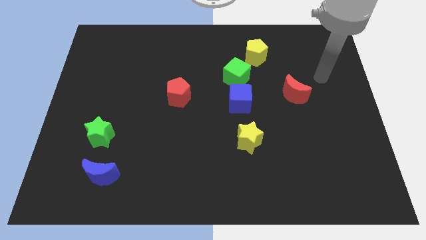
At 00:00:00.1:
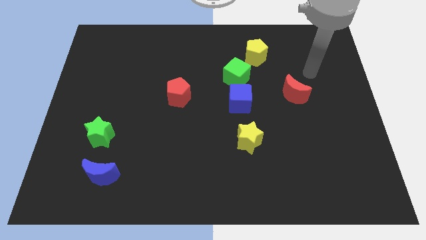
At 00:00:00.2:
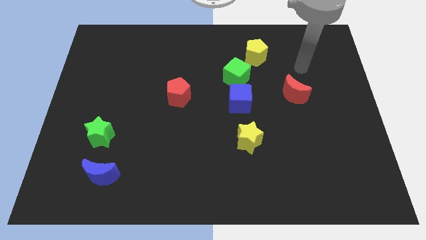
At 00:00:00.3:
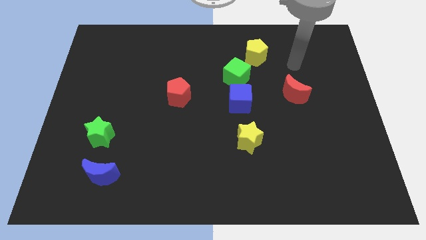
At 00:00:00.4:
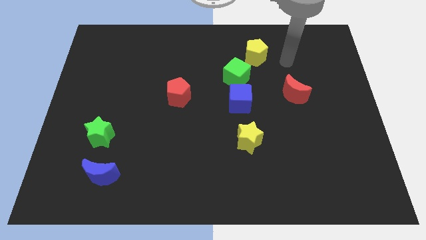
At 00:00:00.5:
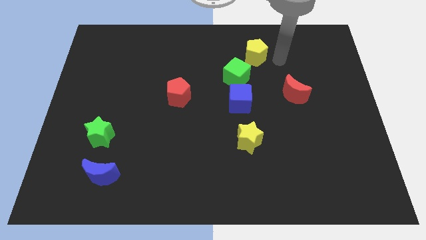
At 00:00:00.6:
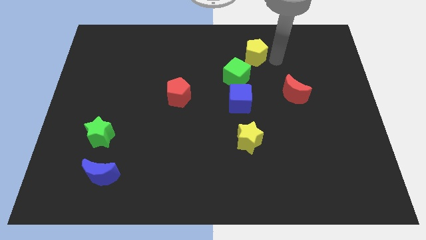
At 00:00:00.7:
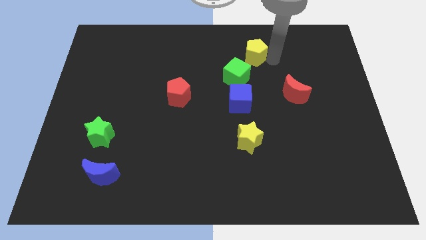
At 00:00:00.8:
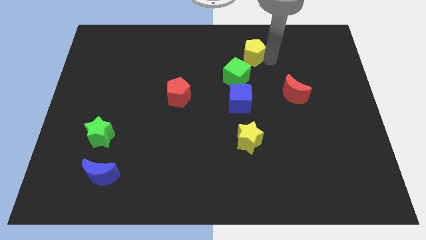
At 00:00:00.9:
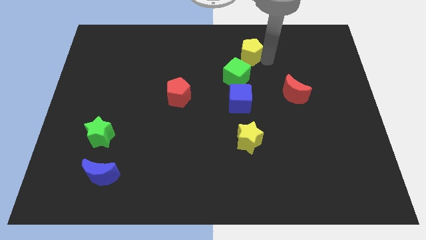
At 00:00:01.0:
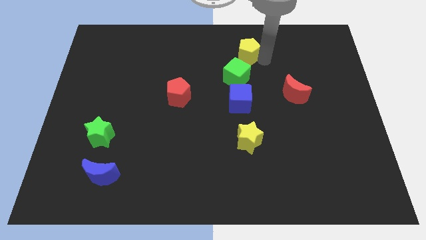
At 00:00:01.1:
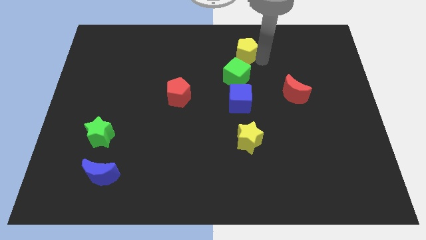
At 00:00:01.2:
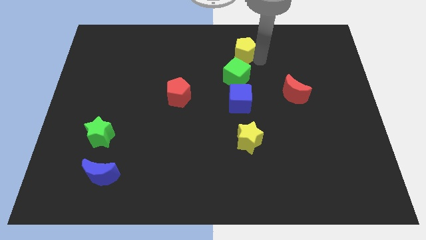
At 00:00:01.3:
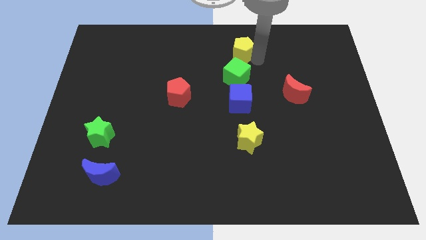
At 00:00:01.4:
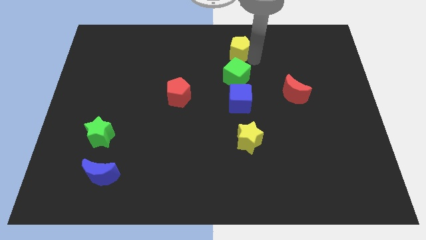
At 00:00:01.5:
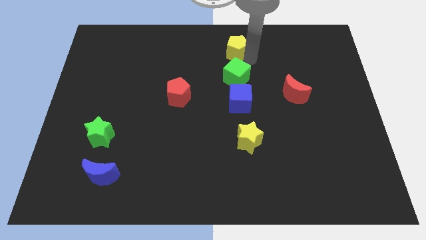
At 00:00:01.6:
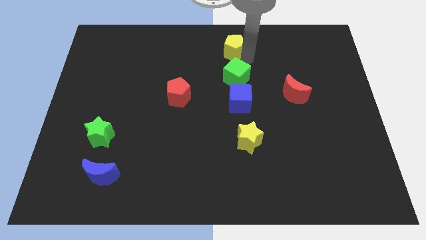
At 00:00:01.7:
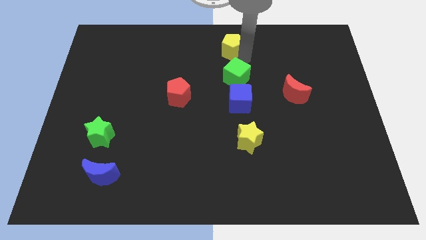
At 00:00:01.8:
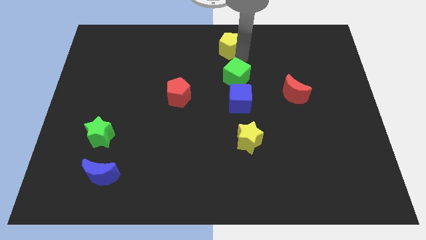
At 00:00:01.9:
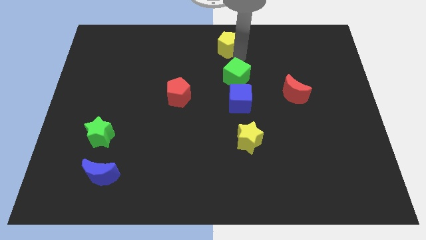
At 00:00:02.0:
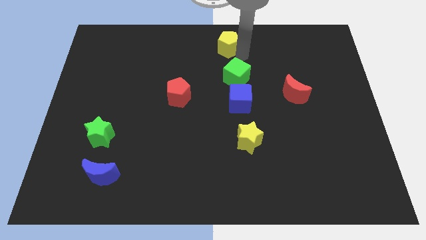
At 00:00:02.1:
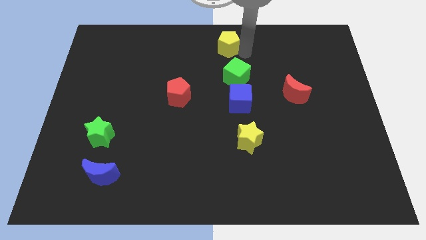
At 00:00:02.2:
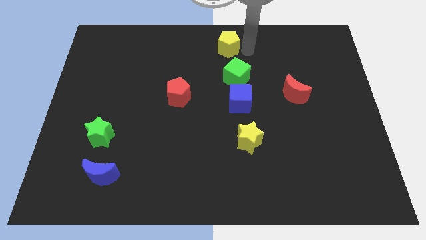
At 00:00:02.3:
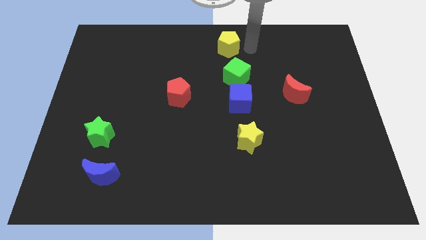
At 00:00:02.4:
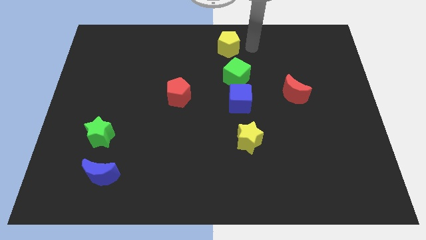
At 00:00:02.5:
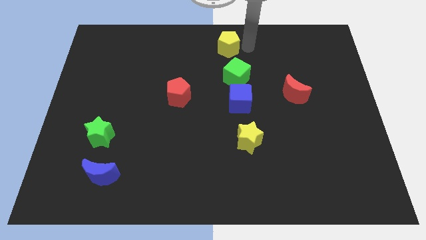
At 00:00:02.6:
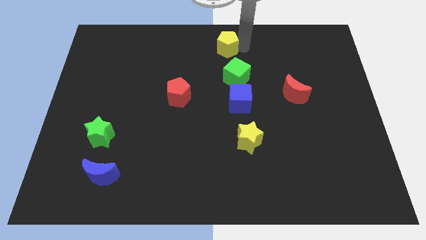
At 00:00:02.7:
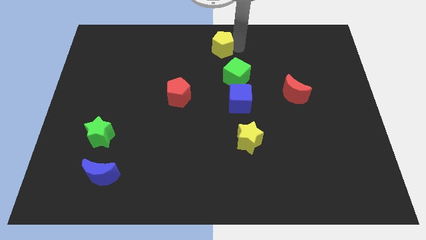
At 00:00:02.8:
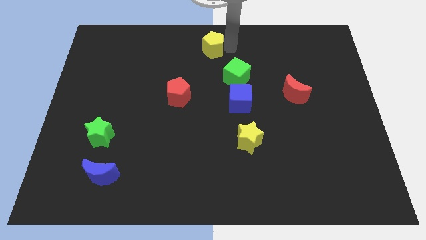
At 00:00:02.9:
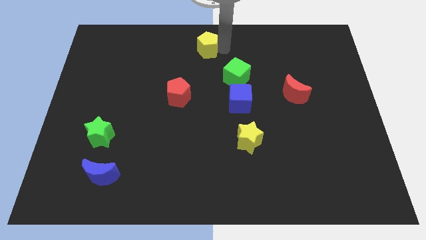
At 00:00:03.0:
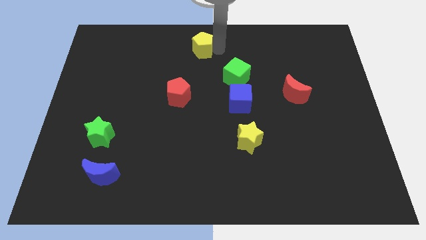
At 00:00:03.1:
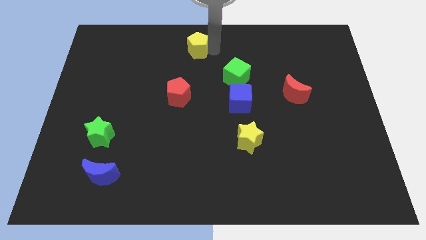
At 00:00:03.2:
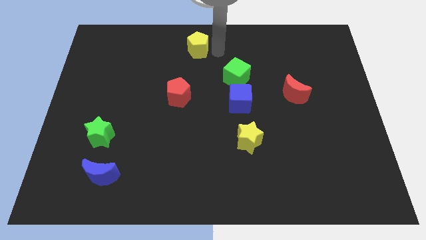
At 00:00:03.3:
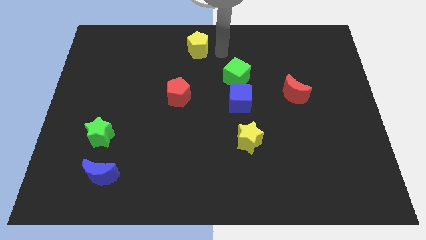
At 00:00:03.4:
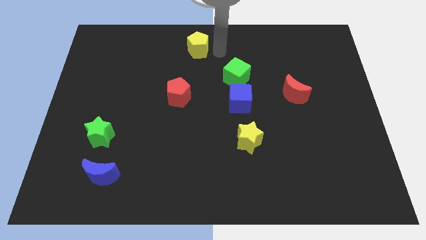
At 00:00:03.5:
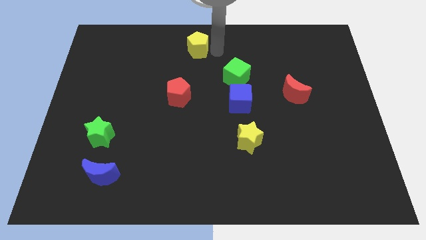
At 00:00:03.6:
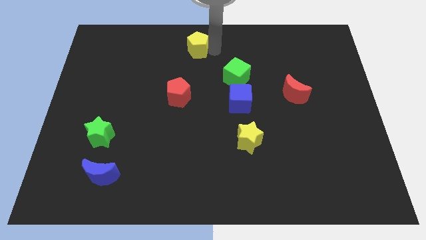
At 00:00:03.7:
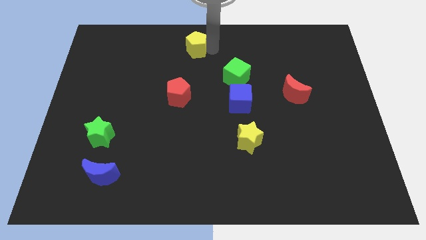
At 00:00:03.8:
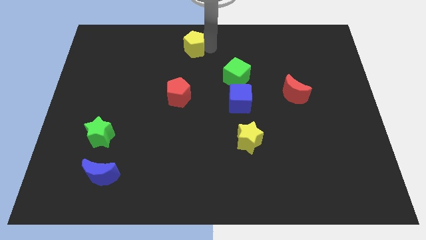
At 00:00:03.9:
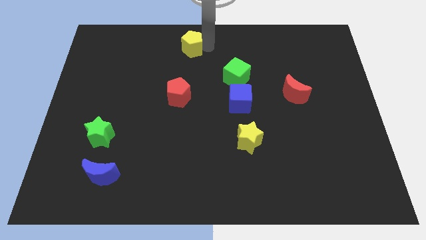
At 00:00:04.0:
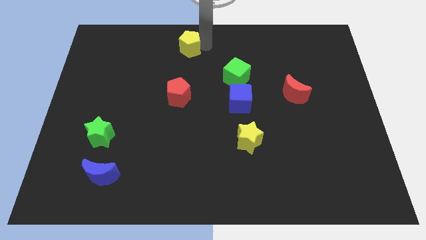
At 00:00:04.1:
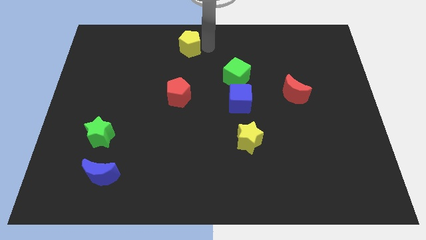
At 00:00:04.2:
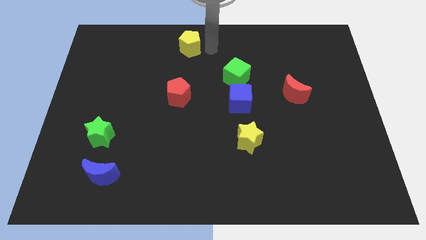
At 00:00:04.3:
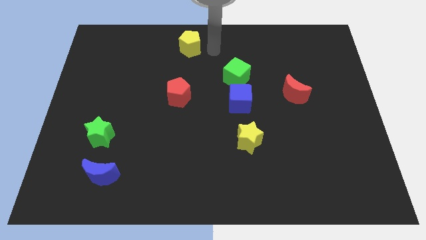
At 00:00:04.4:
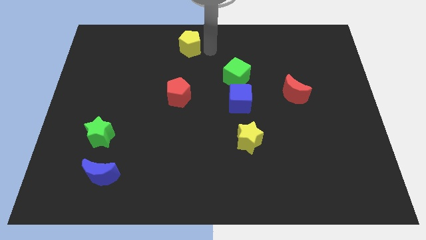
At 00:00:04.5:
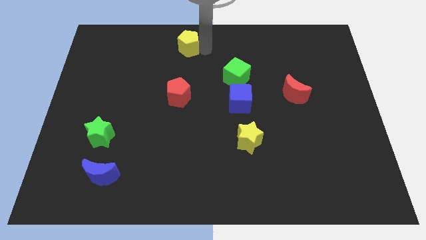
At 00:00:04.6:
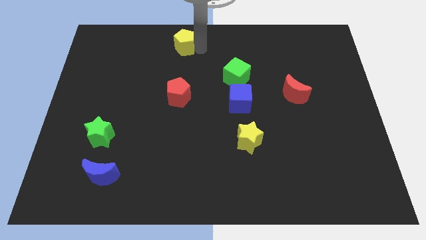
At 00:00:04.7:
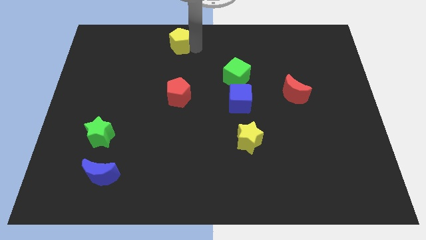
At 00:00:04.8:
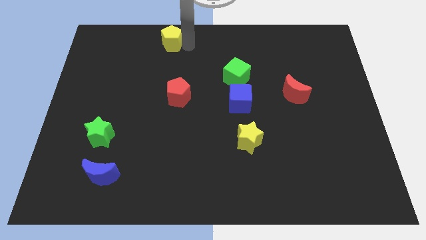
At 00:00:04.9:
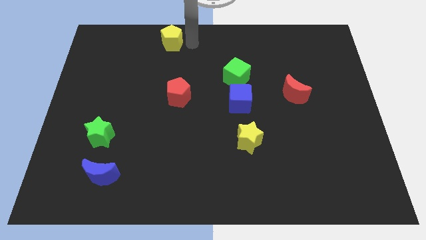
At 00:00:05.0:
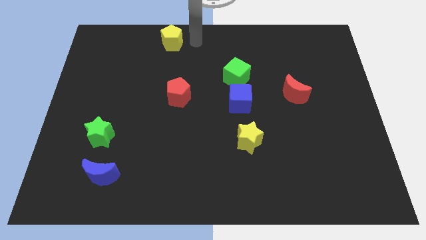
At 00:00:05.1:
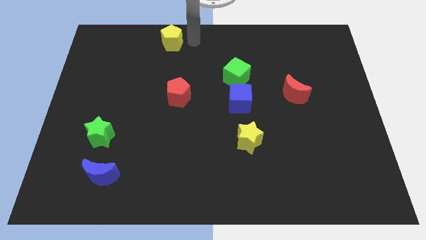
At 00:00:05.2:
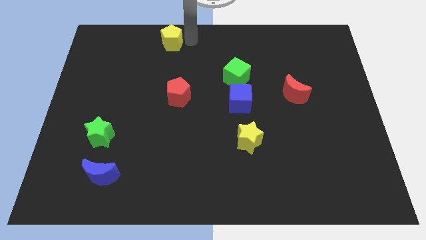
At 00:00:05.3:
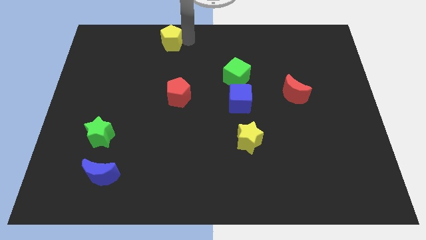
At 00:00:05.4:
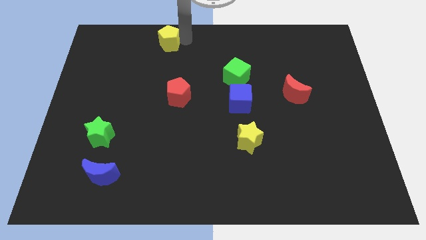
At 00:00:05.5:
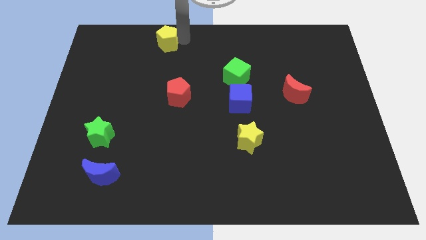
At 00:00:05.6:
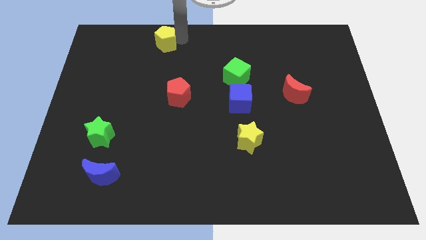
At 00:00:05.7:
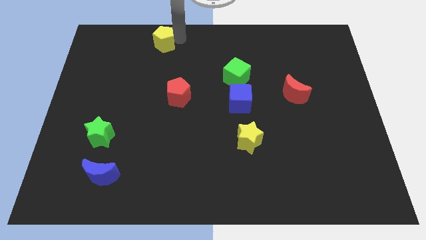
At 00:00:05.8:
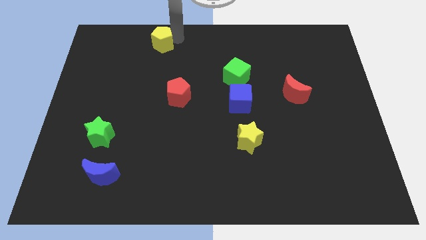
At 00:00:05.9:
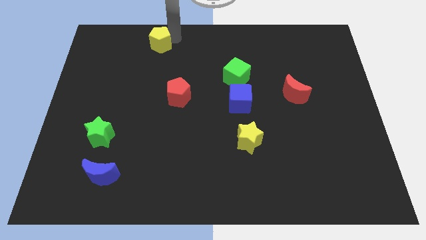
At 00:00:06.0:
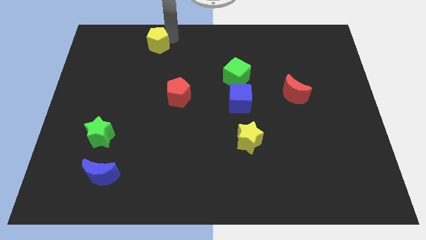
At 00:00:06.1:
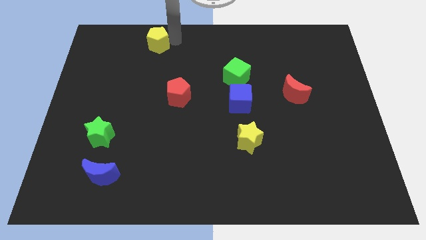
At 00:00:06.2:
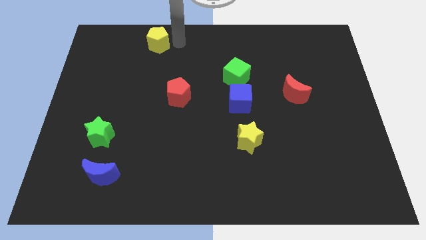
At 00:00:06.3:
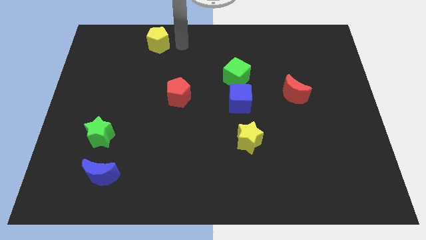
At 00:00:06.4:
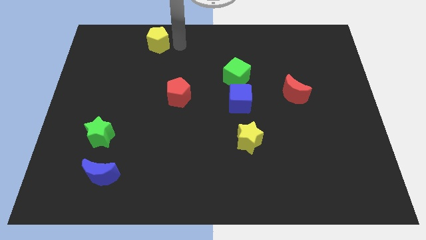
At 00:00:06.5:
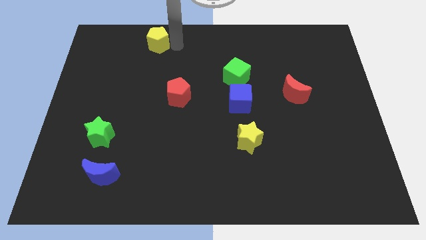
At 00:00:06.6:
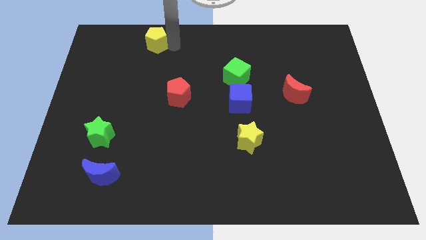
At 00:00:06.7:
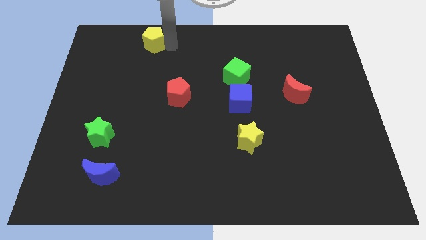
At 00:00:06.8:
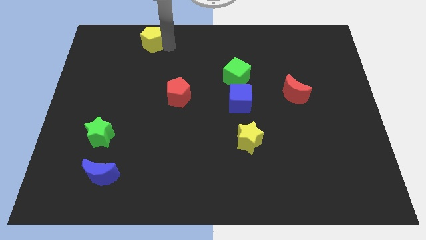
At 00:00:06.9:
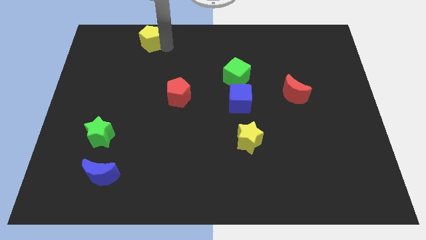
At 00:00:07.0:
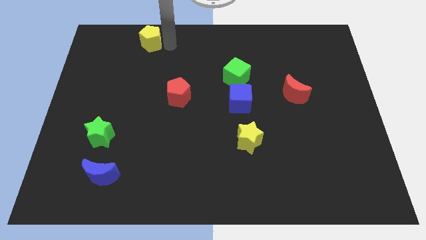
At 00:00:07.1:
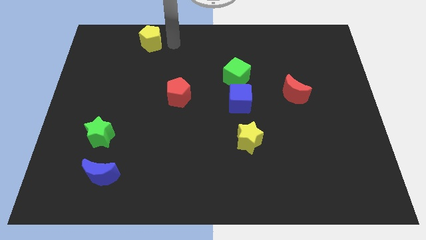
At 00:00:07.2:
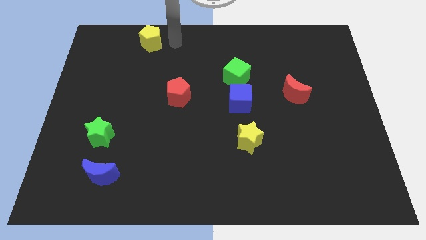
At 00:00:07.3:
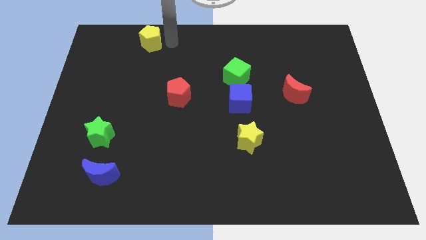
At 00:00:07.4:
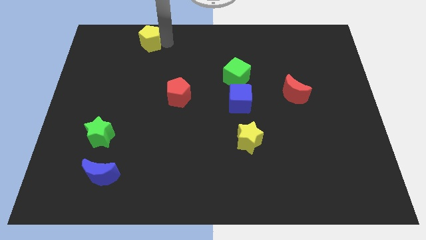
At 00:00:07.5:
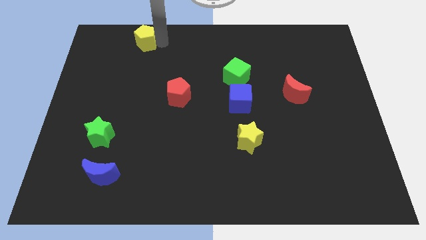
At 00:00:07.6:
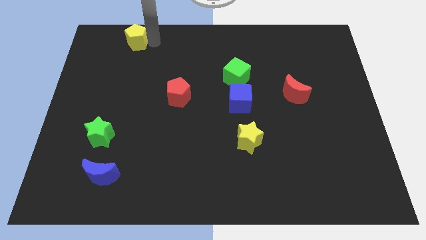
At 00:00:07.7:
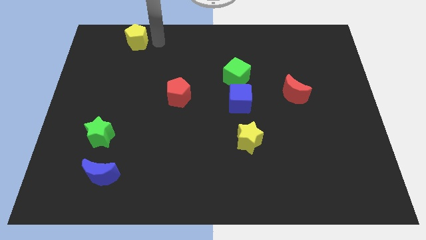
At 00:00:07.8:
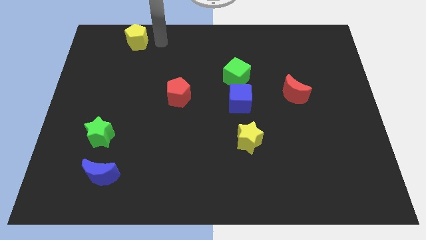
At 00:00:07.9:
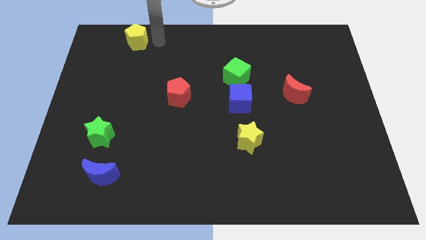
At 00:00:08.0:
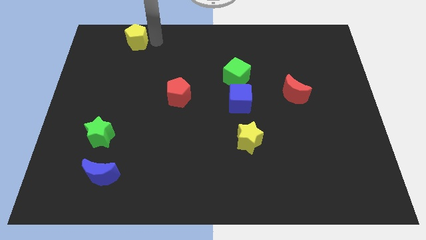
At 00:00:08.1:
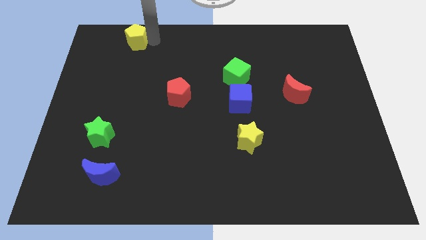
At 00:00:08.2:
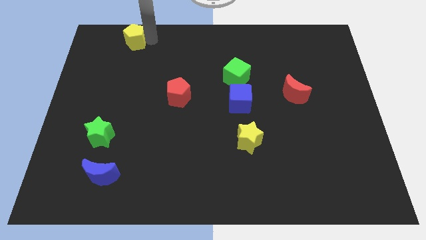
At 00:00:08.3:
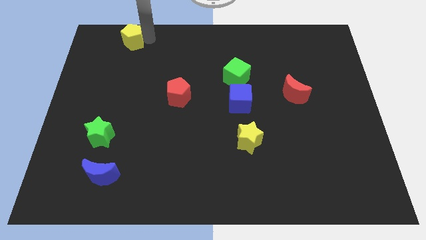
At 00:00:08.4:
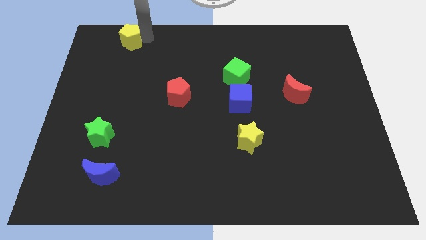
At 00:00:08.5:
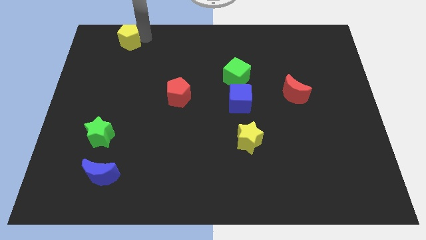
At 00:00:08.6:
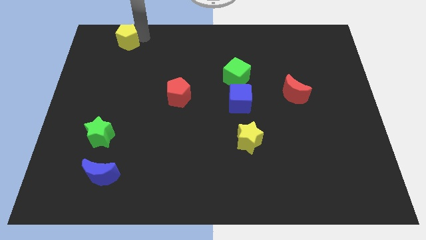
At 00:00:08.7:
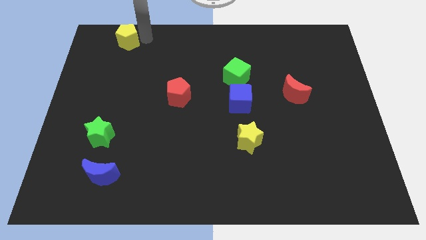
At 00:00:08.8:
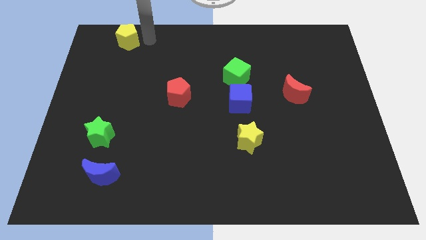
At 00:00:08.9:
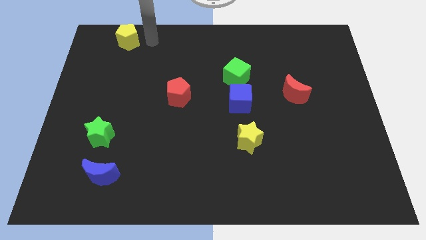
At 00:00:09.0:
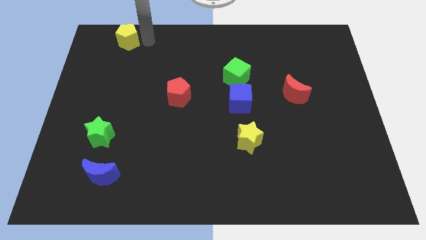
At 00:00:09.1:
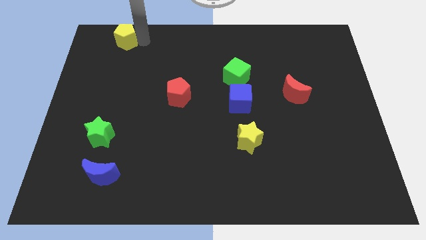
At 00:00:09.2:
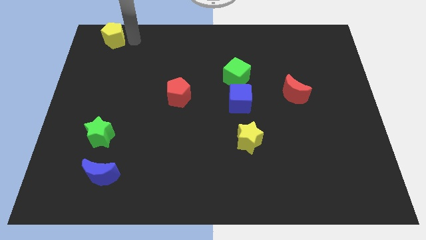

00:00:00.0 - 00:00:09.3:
put the yellow pentagon to the top left of the board
